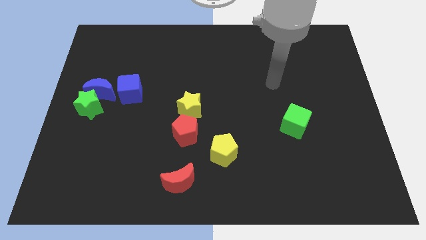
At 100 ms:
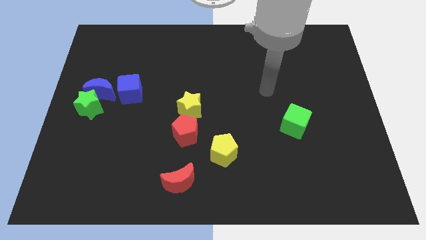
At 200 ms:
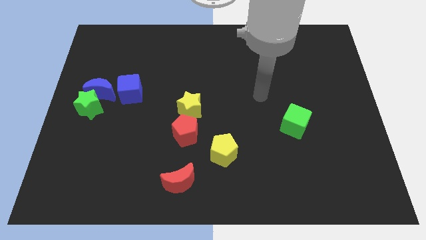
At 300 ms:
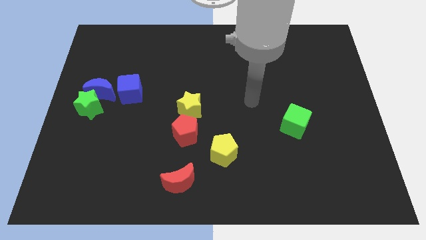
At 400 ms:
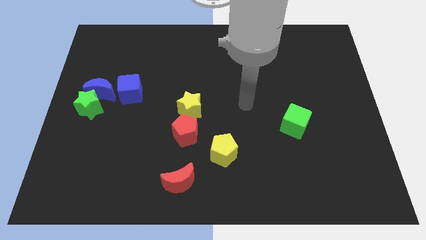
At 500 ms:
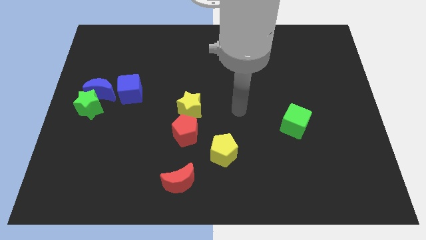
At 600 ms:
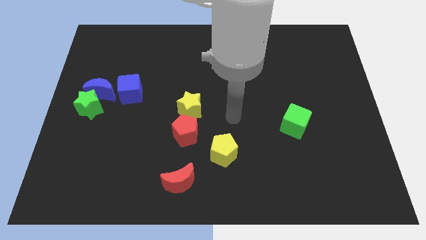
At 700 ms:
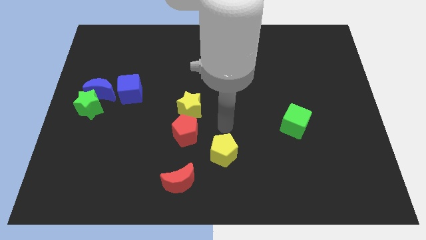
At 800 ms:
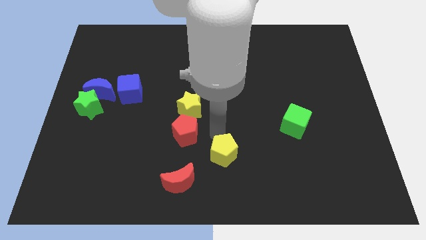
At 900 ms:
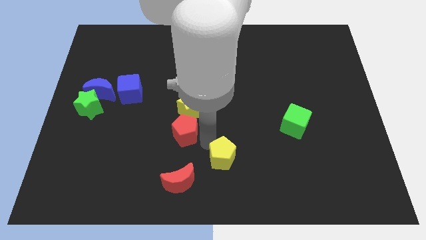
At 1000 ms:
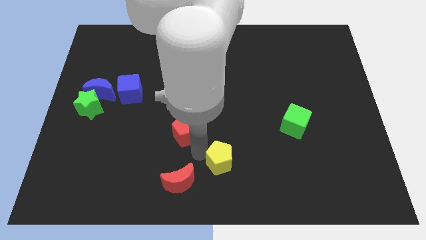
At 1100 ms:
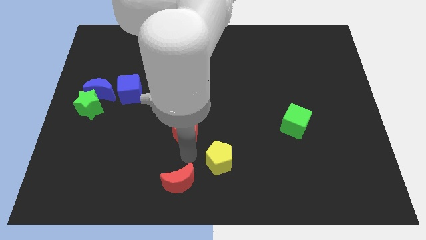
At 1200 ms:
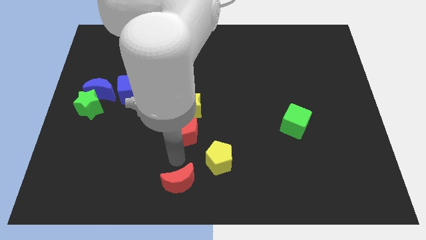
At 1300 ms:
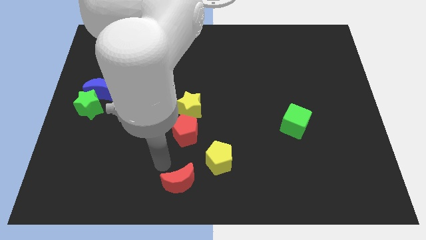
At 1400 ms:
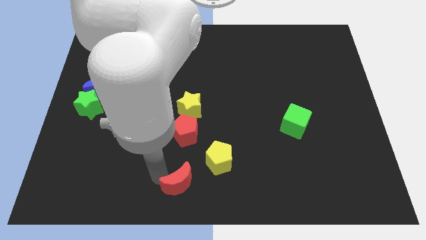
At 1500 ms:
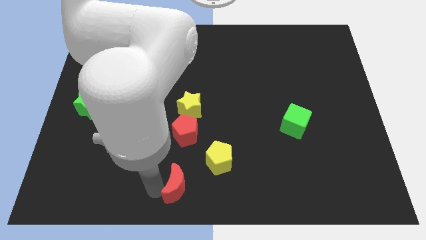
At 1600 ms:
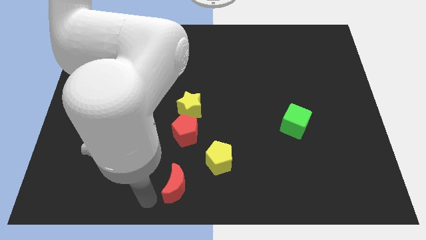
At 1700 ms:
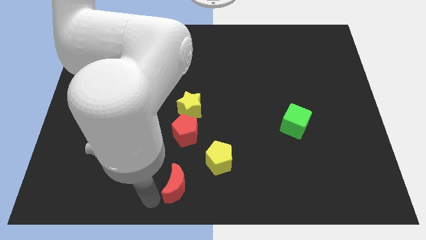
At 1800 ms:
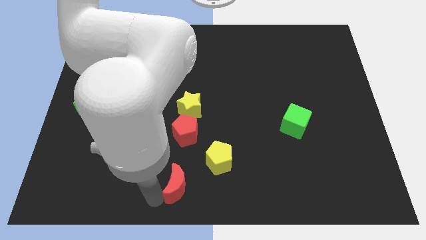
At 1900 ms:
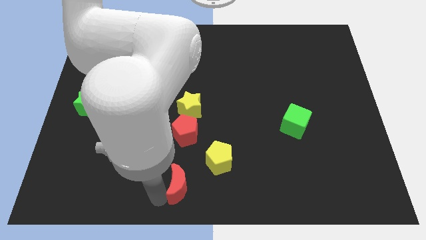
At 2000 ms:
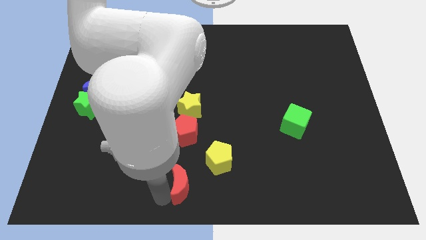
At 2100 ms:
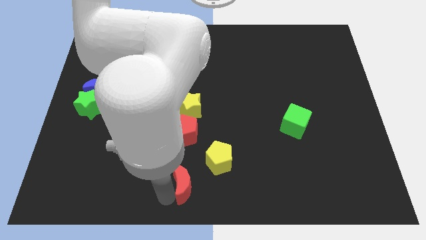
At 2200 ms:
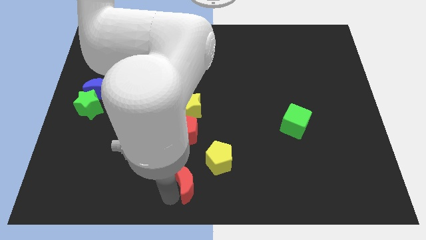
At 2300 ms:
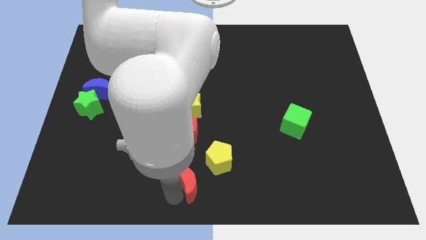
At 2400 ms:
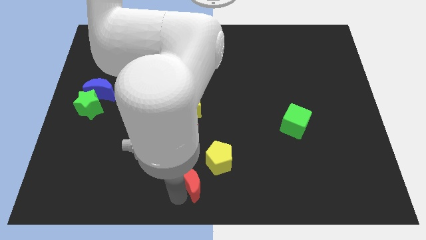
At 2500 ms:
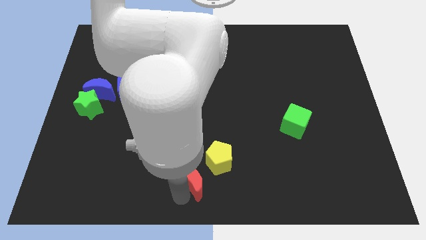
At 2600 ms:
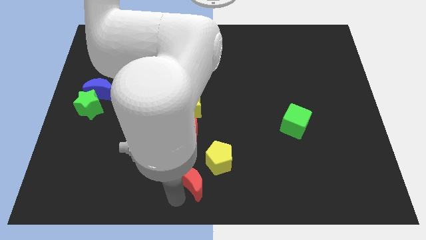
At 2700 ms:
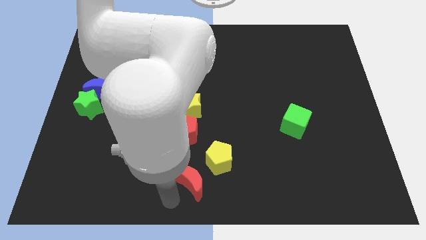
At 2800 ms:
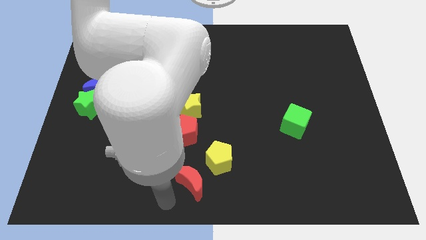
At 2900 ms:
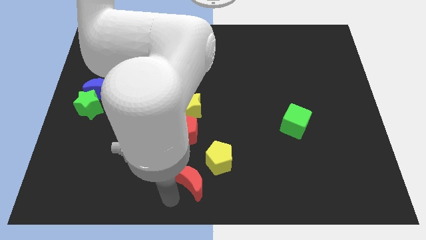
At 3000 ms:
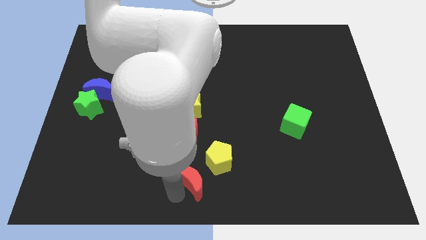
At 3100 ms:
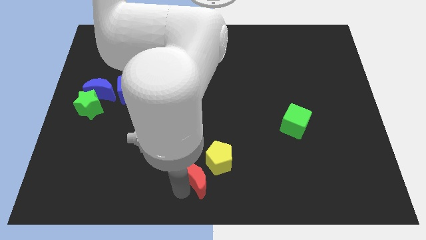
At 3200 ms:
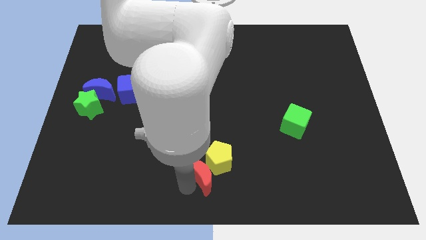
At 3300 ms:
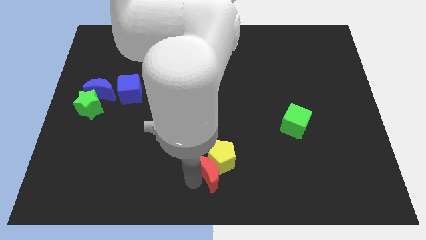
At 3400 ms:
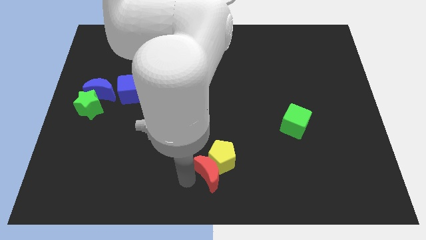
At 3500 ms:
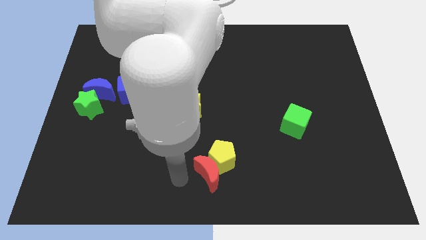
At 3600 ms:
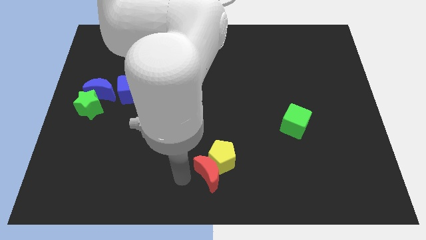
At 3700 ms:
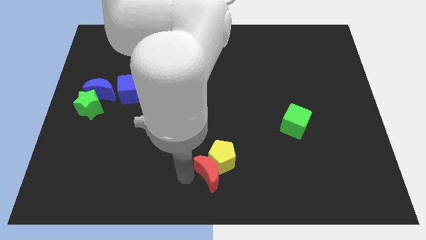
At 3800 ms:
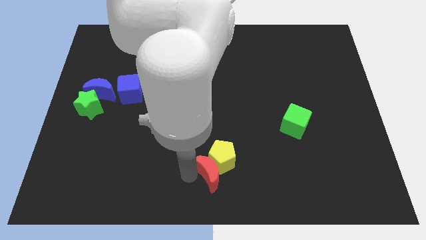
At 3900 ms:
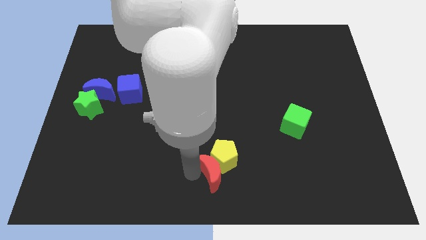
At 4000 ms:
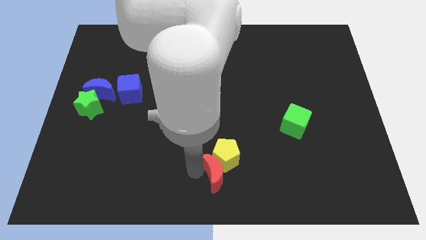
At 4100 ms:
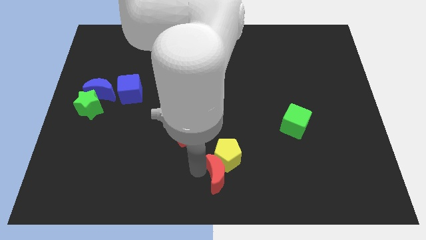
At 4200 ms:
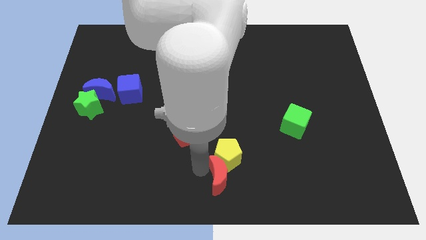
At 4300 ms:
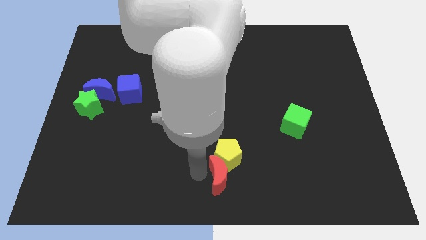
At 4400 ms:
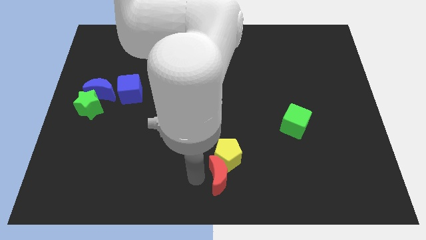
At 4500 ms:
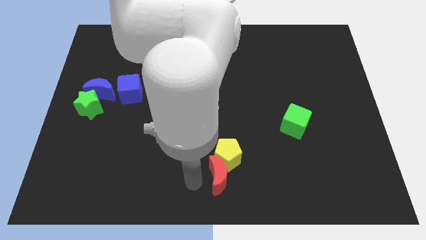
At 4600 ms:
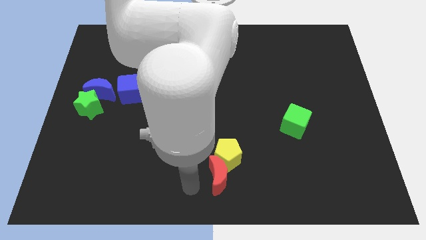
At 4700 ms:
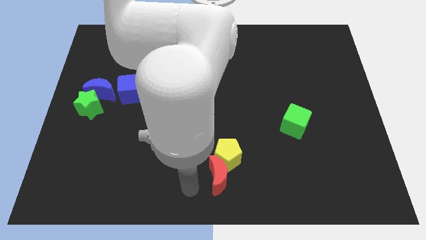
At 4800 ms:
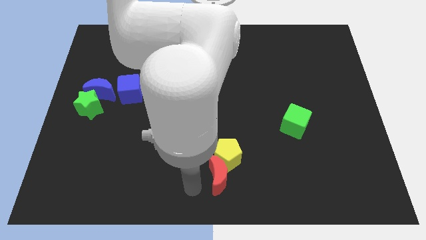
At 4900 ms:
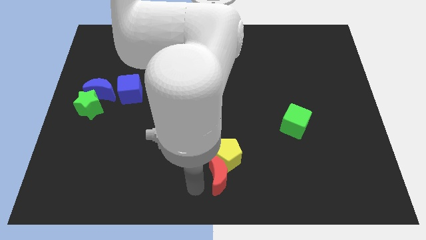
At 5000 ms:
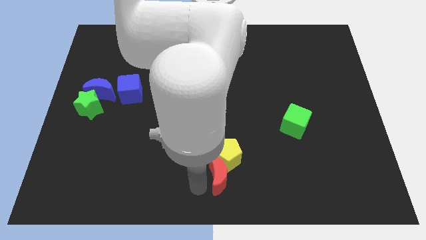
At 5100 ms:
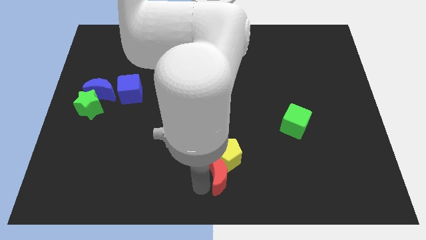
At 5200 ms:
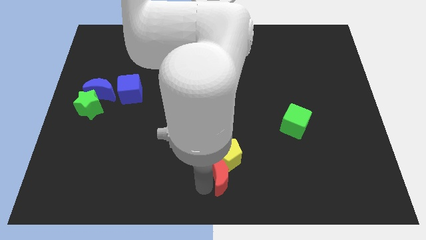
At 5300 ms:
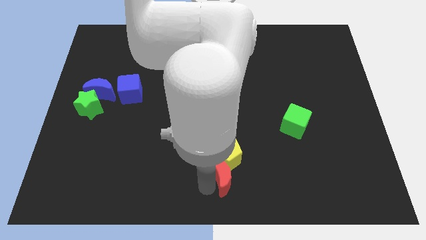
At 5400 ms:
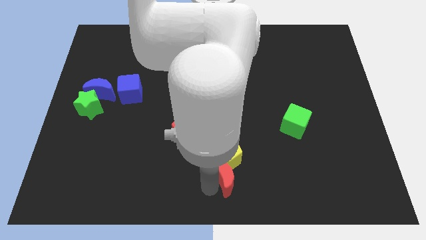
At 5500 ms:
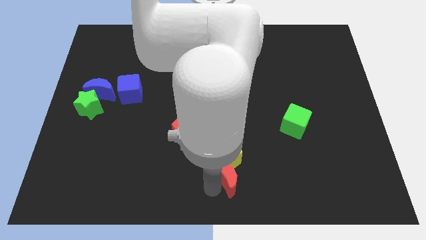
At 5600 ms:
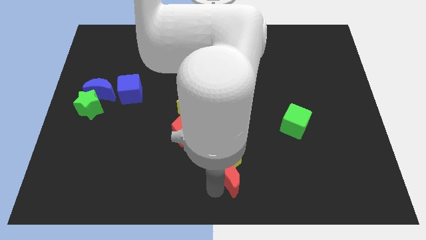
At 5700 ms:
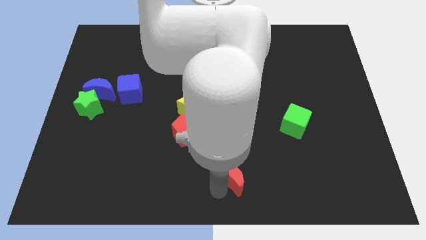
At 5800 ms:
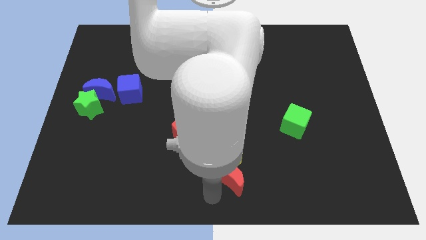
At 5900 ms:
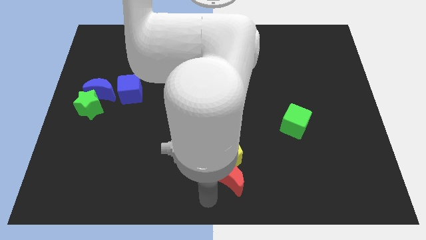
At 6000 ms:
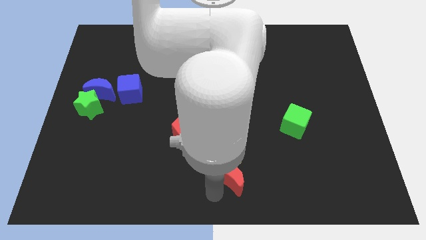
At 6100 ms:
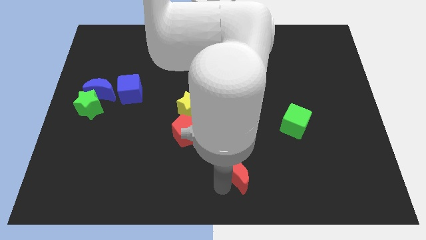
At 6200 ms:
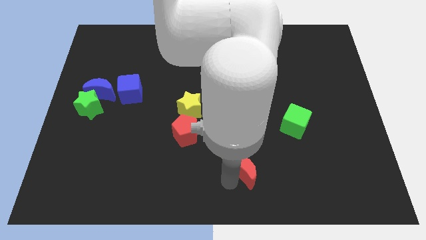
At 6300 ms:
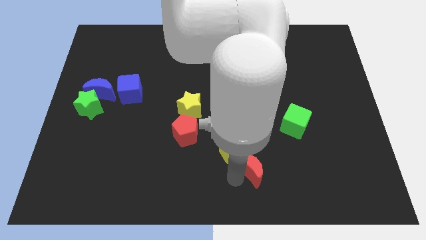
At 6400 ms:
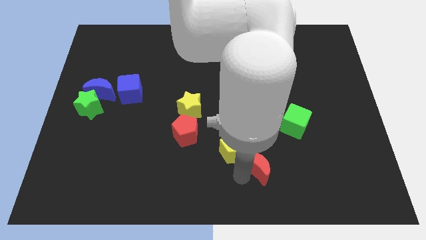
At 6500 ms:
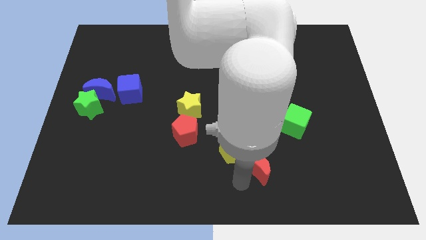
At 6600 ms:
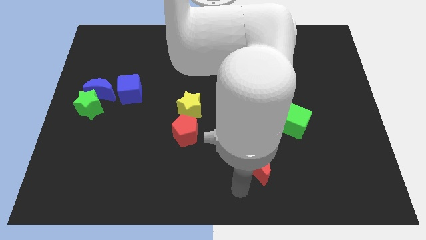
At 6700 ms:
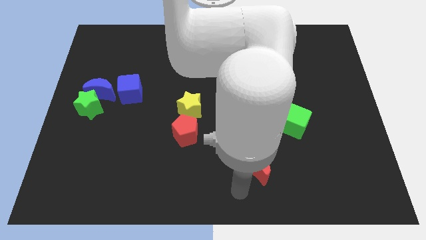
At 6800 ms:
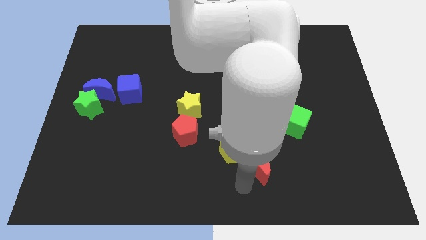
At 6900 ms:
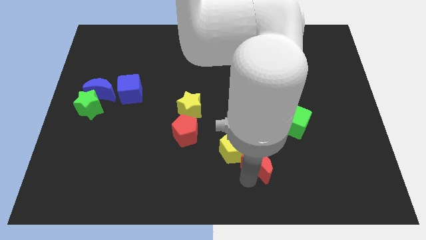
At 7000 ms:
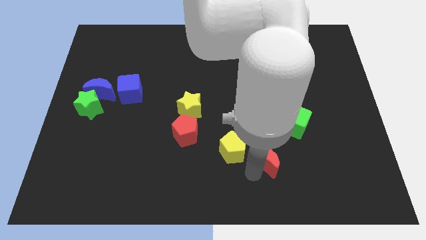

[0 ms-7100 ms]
put the red moon to the bottom left of the green cube
